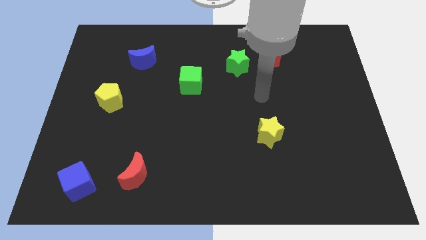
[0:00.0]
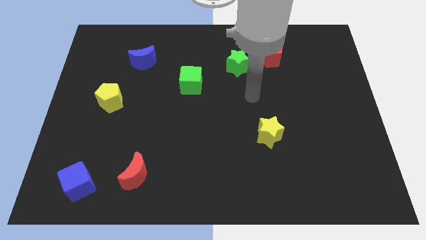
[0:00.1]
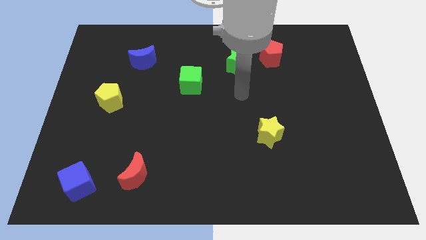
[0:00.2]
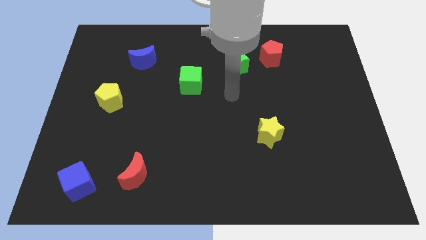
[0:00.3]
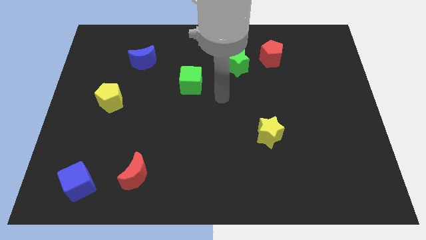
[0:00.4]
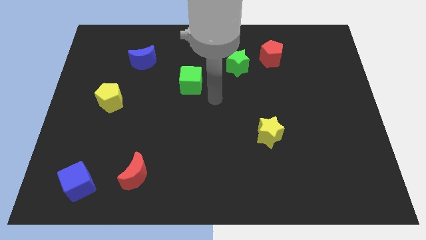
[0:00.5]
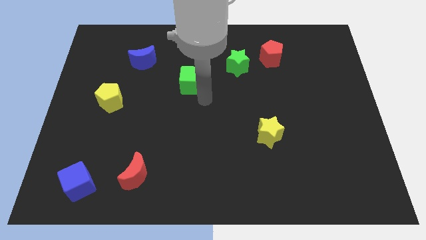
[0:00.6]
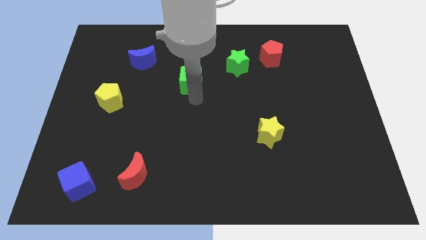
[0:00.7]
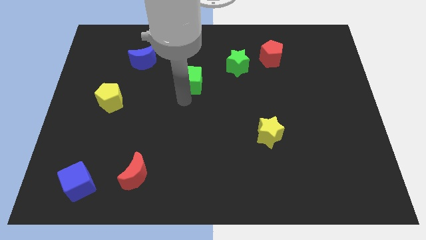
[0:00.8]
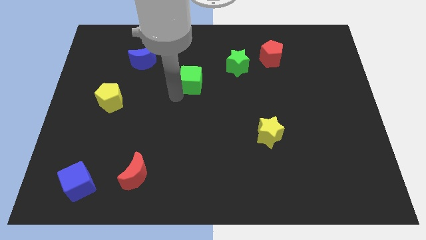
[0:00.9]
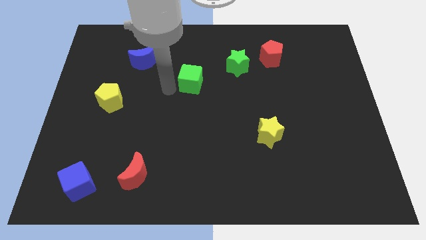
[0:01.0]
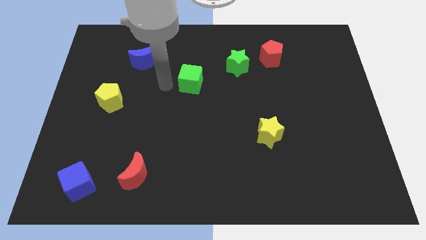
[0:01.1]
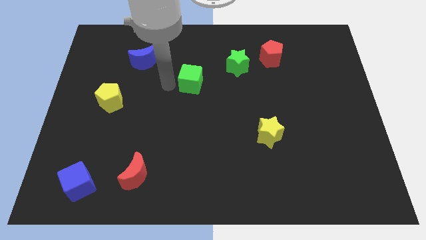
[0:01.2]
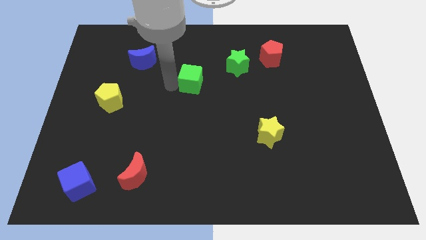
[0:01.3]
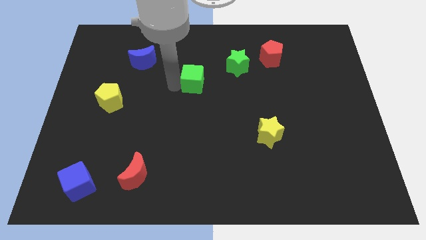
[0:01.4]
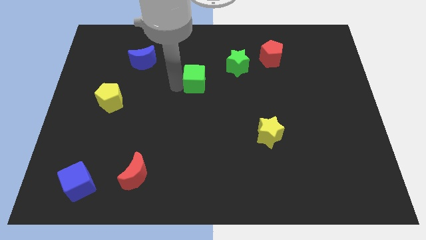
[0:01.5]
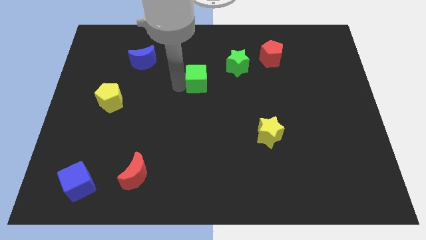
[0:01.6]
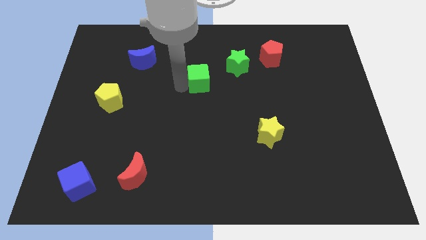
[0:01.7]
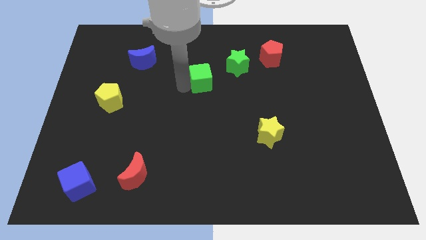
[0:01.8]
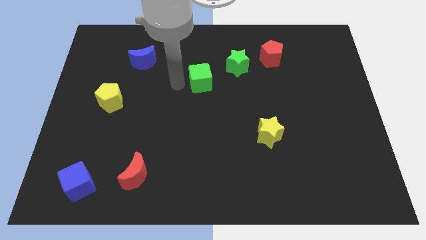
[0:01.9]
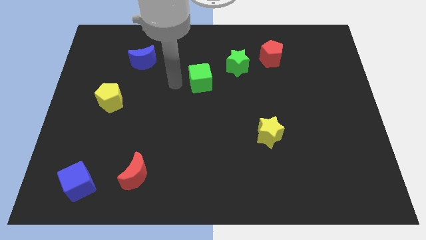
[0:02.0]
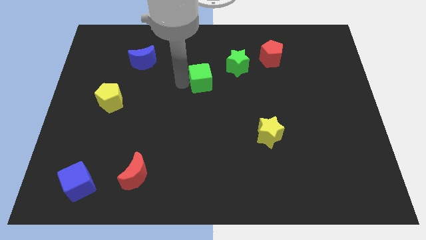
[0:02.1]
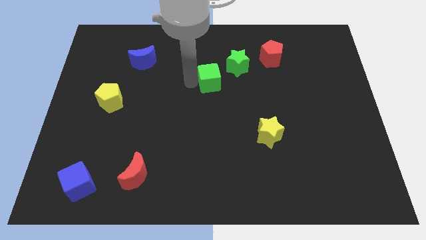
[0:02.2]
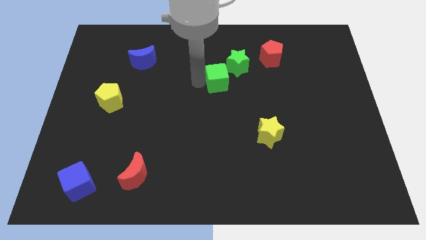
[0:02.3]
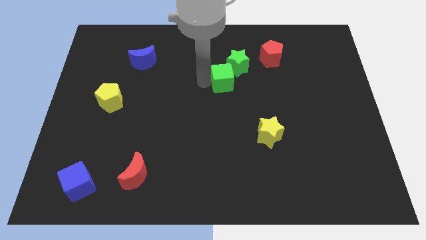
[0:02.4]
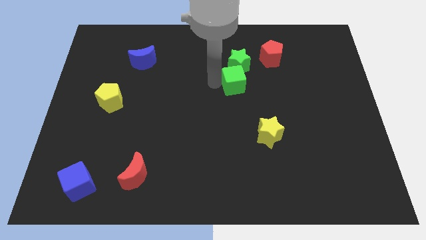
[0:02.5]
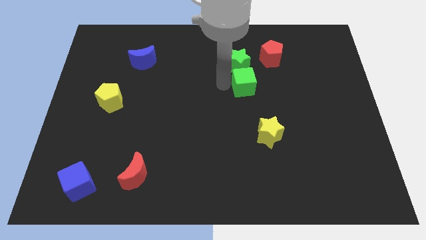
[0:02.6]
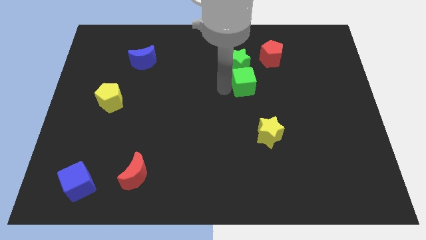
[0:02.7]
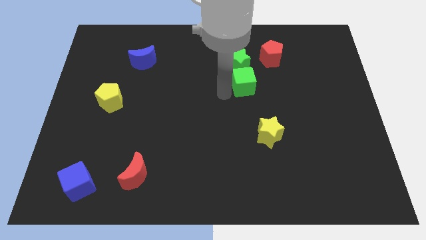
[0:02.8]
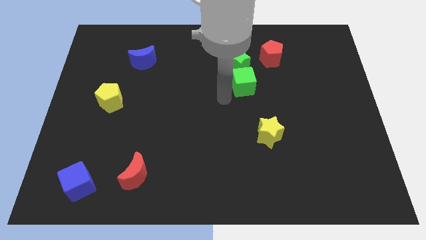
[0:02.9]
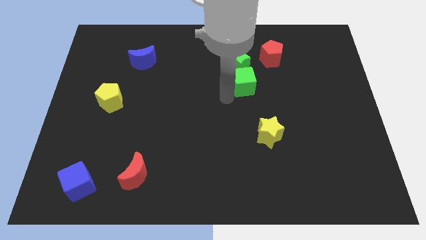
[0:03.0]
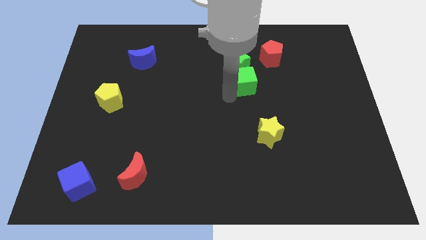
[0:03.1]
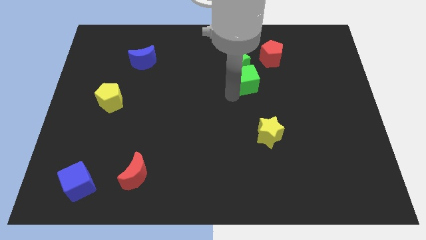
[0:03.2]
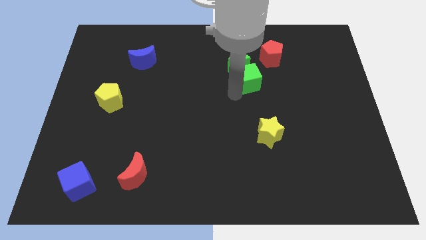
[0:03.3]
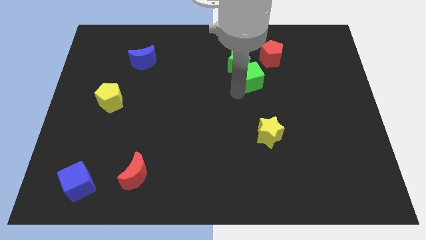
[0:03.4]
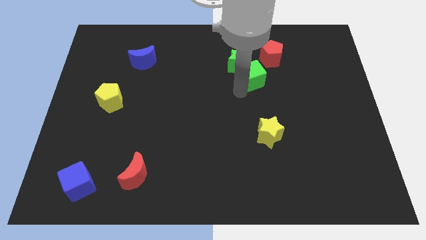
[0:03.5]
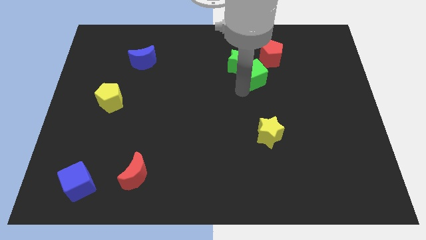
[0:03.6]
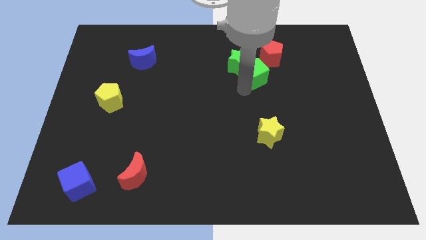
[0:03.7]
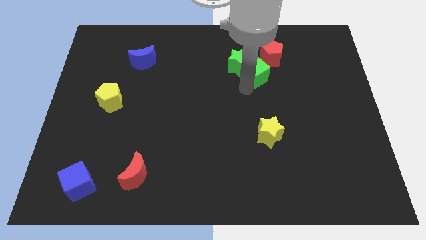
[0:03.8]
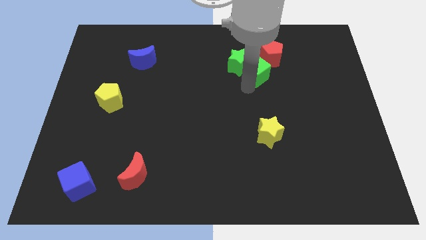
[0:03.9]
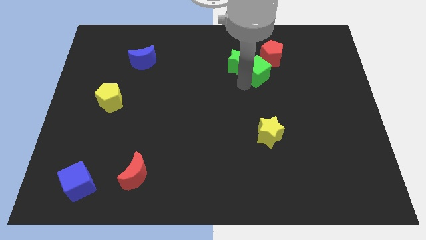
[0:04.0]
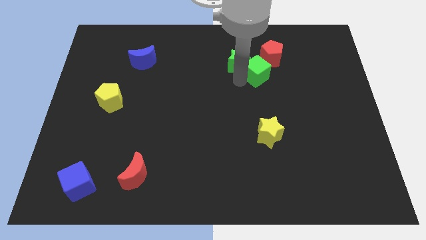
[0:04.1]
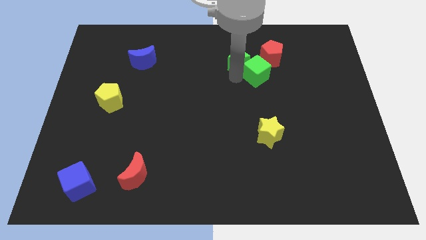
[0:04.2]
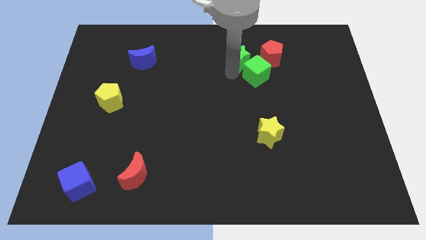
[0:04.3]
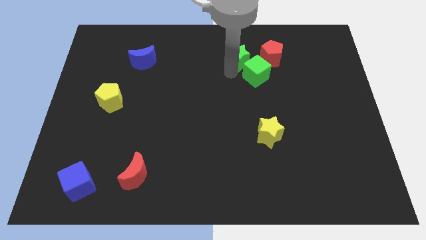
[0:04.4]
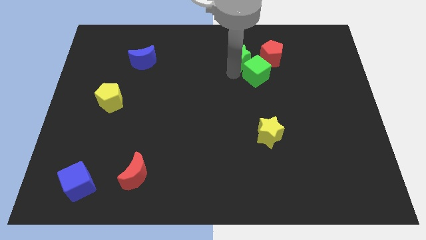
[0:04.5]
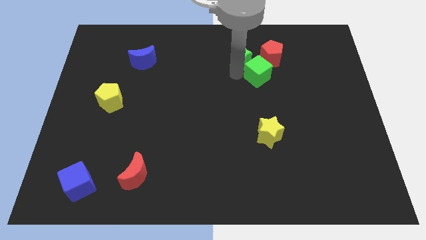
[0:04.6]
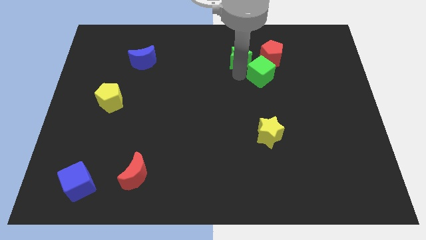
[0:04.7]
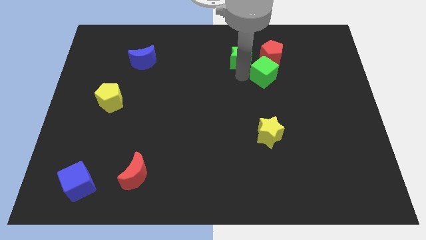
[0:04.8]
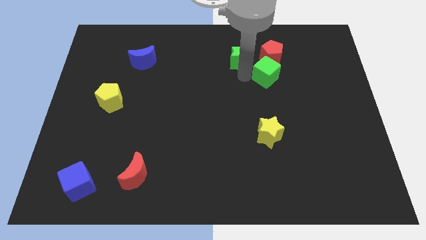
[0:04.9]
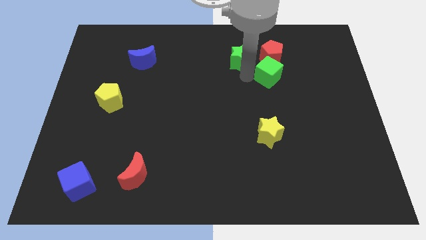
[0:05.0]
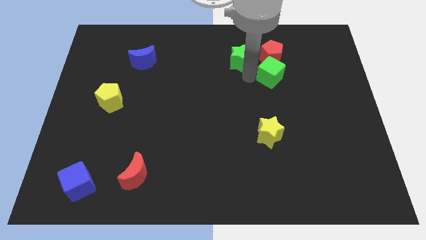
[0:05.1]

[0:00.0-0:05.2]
slide the green cube to the right

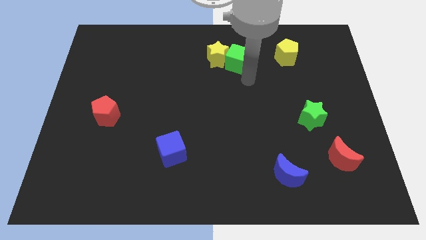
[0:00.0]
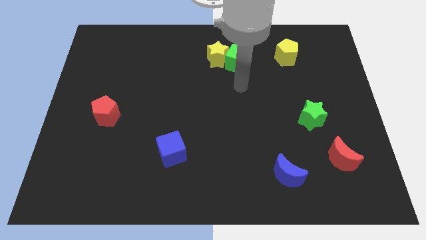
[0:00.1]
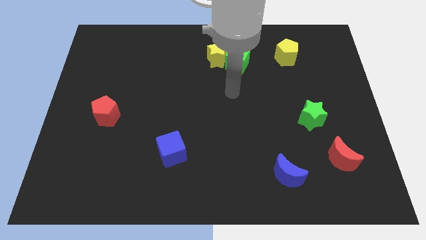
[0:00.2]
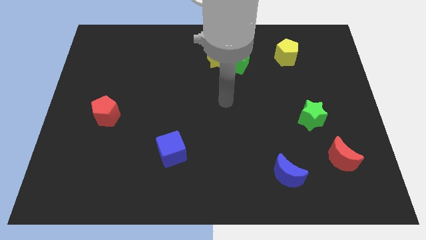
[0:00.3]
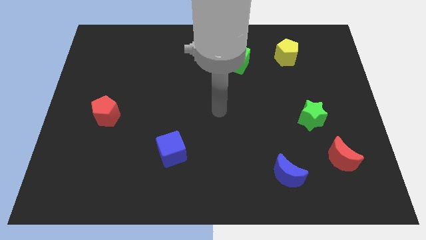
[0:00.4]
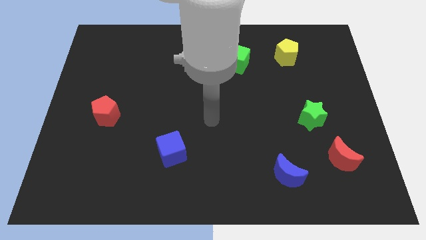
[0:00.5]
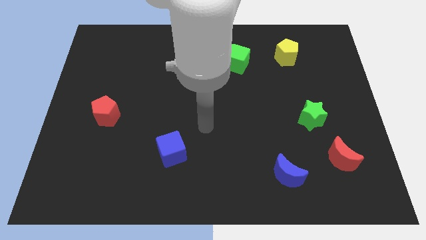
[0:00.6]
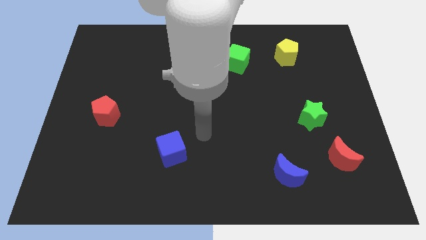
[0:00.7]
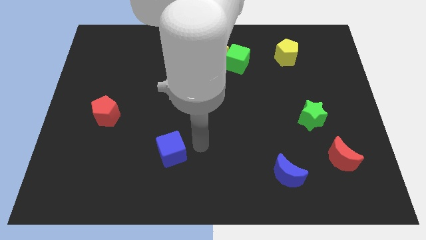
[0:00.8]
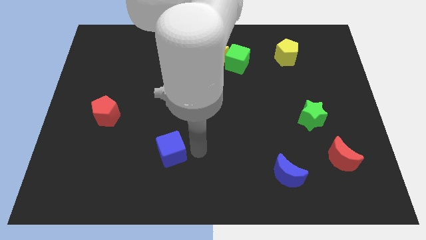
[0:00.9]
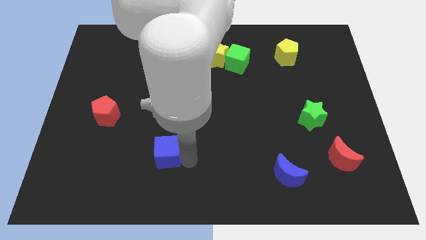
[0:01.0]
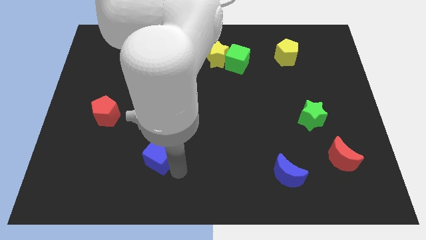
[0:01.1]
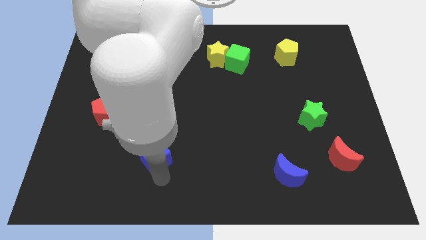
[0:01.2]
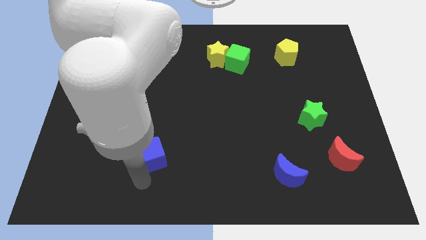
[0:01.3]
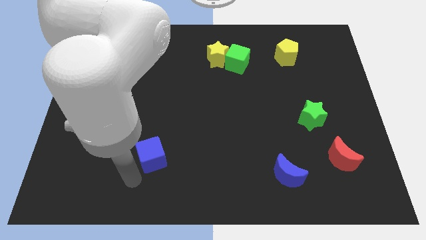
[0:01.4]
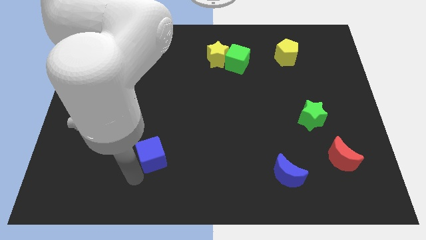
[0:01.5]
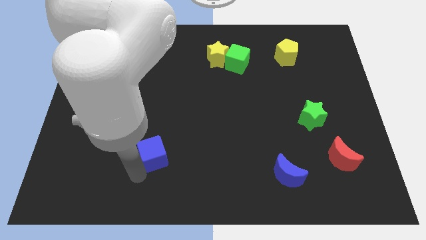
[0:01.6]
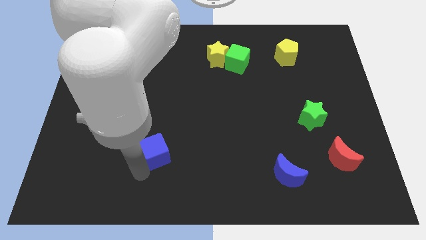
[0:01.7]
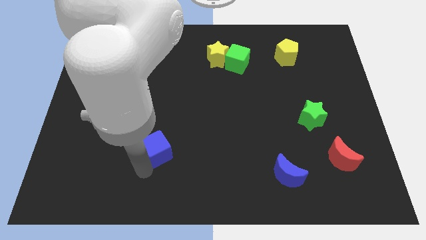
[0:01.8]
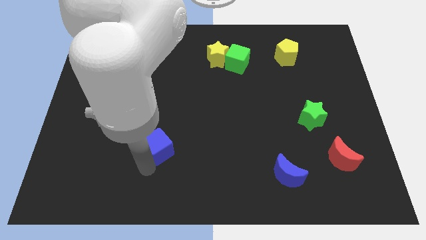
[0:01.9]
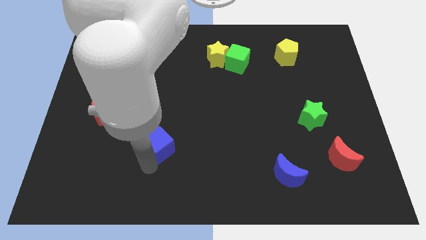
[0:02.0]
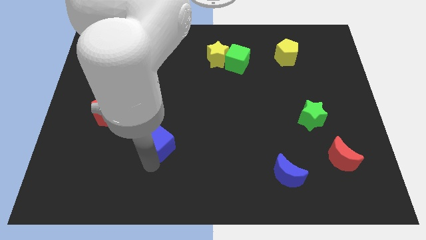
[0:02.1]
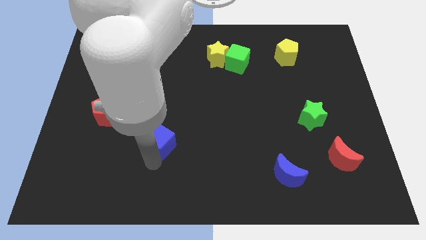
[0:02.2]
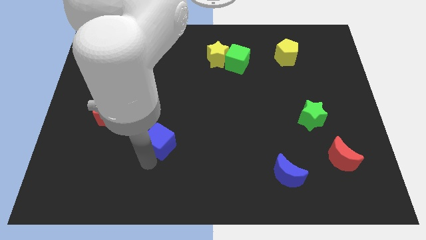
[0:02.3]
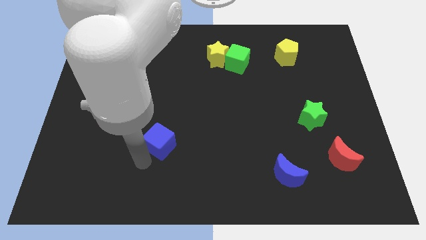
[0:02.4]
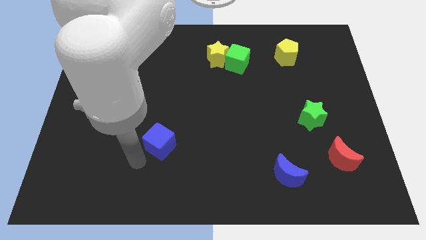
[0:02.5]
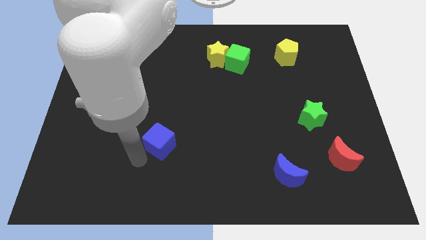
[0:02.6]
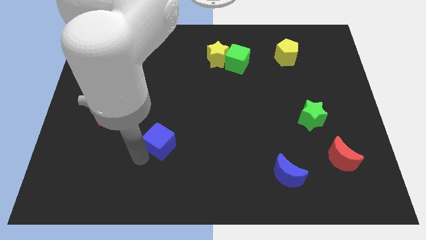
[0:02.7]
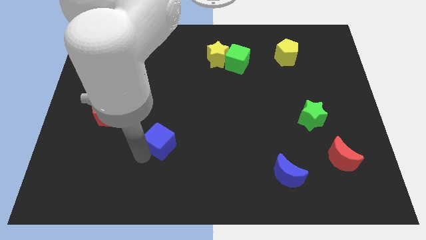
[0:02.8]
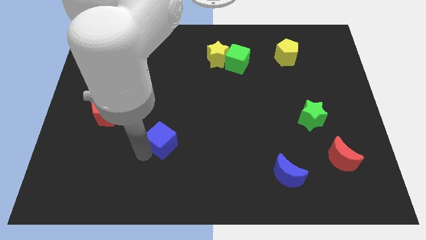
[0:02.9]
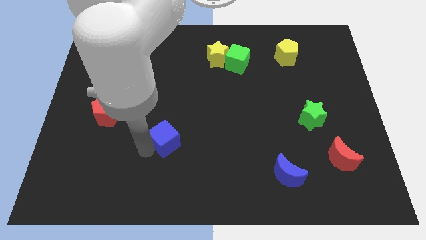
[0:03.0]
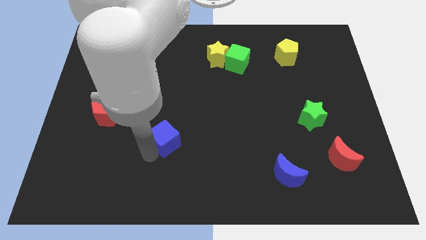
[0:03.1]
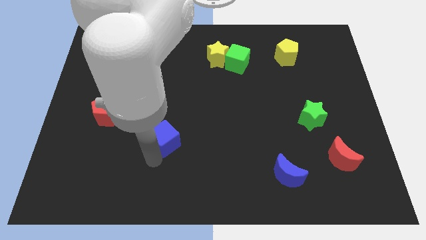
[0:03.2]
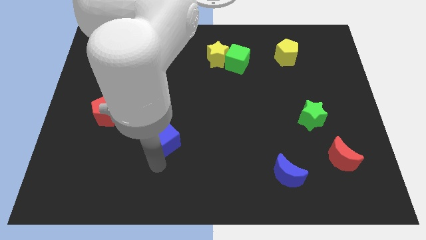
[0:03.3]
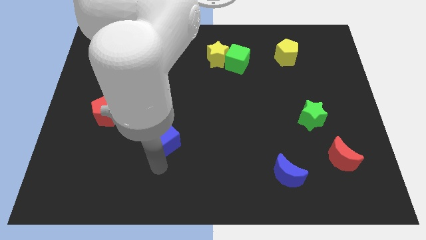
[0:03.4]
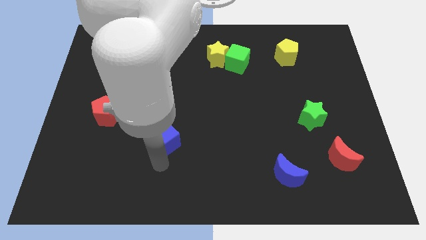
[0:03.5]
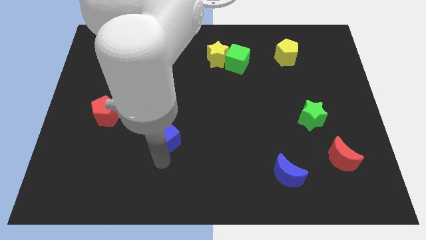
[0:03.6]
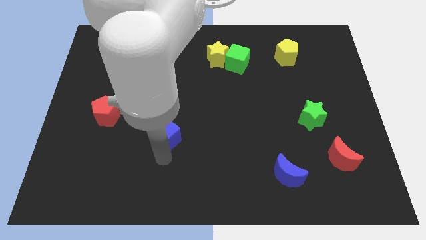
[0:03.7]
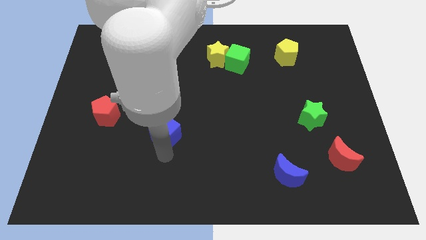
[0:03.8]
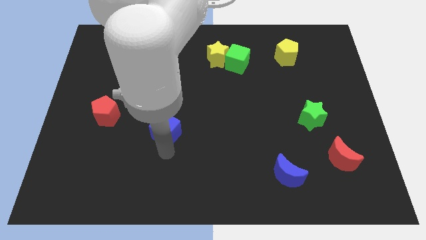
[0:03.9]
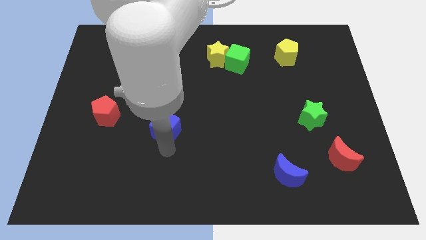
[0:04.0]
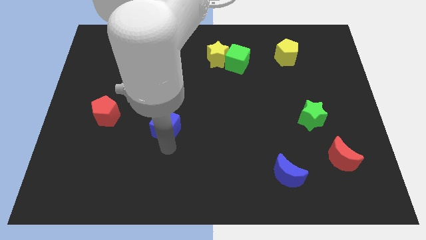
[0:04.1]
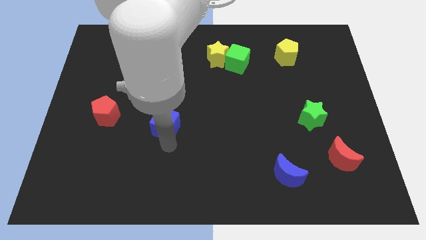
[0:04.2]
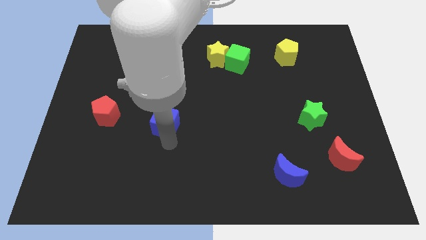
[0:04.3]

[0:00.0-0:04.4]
move the blue cube upwards slightly
